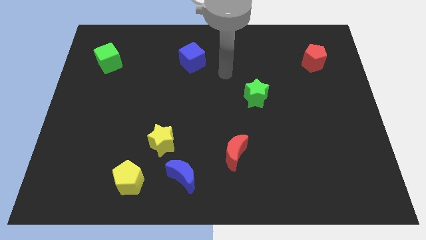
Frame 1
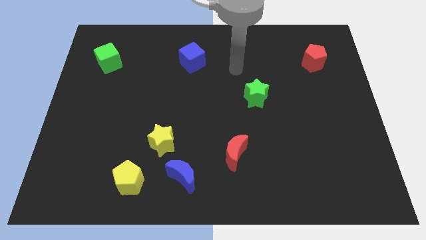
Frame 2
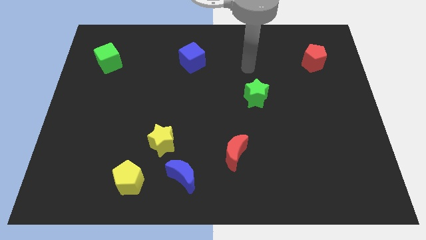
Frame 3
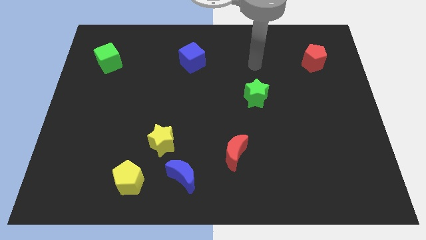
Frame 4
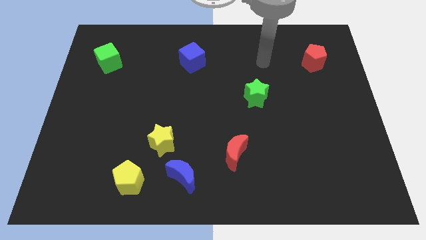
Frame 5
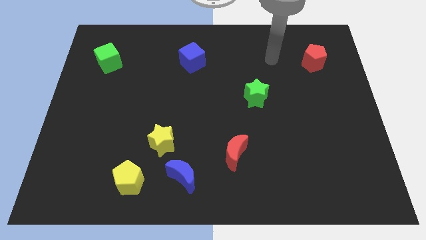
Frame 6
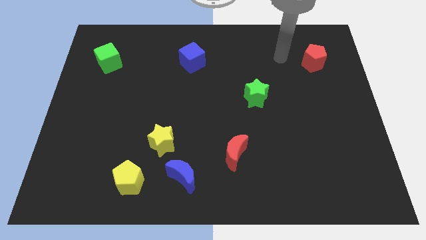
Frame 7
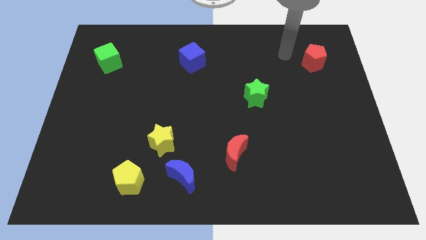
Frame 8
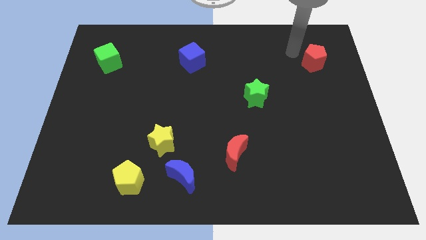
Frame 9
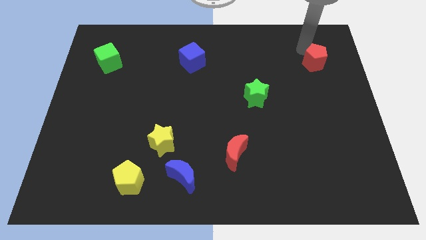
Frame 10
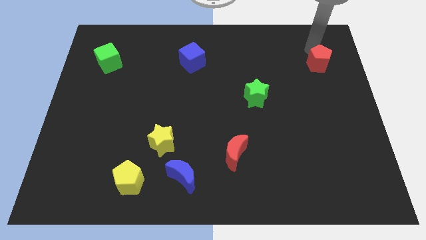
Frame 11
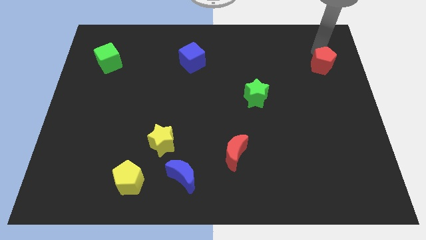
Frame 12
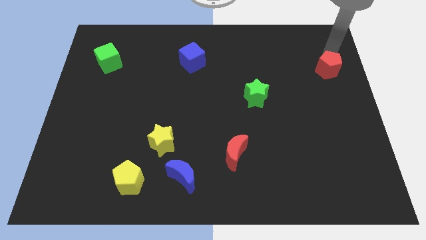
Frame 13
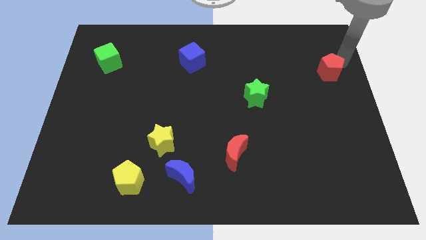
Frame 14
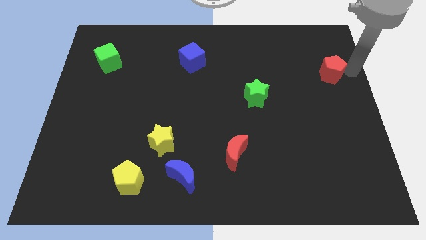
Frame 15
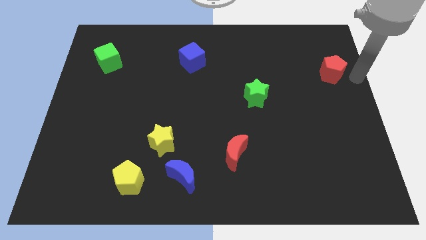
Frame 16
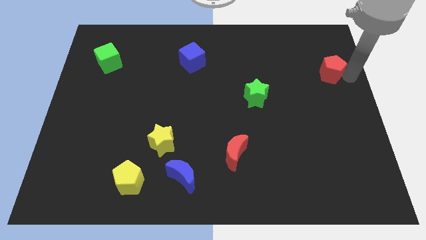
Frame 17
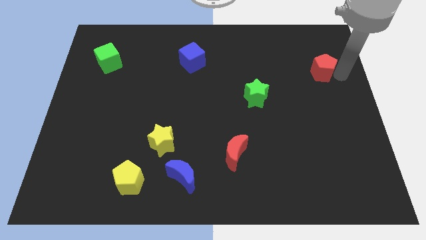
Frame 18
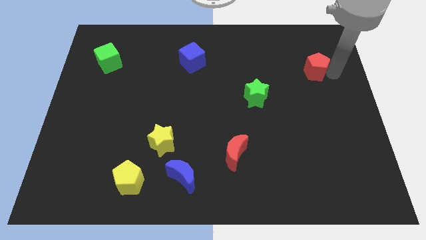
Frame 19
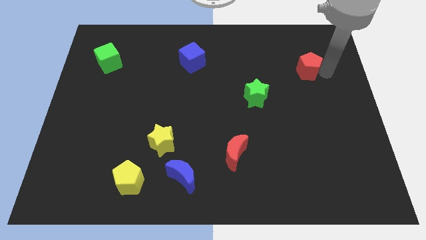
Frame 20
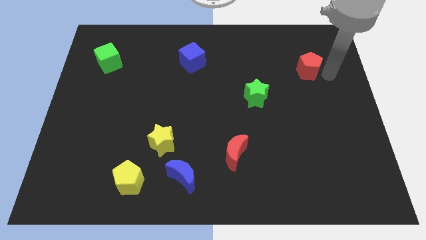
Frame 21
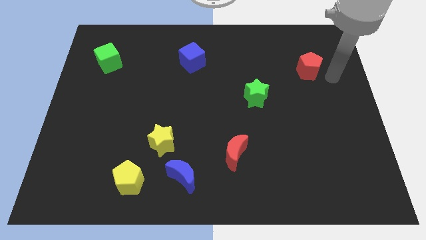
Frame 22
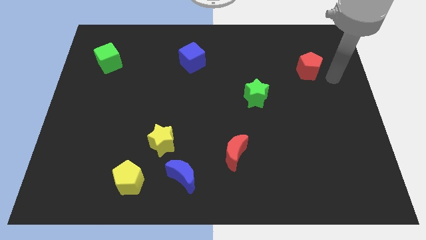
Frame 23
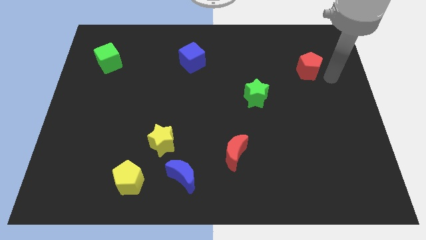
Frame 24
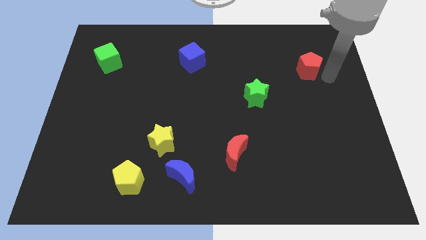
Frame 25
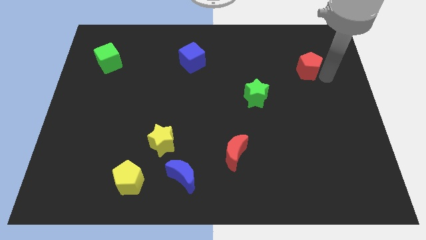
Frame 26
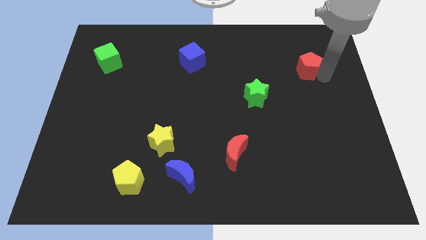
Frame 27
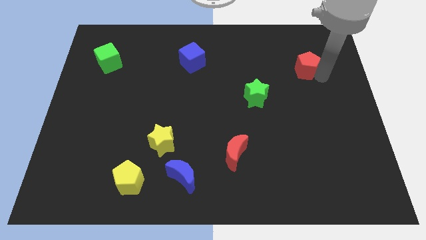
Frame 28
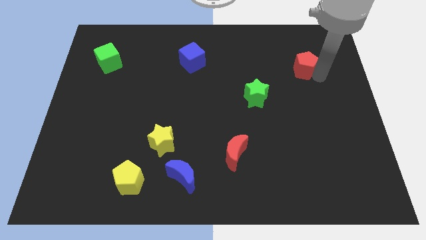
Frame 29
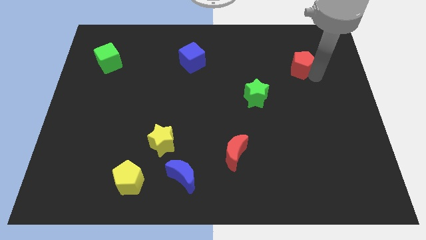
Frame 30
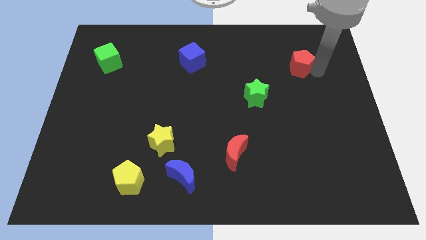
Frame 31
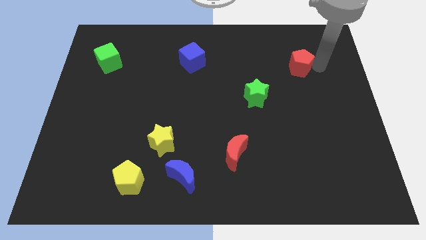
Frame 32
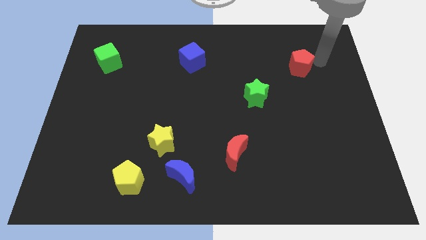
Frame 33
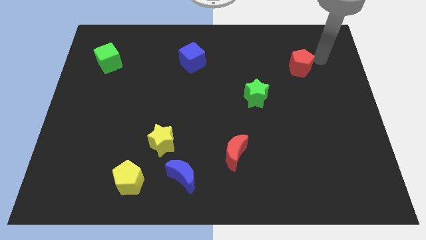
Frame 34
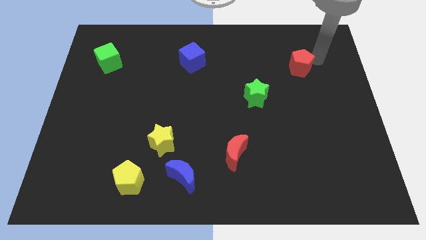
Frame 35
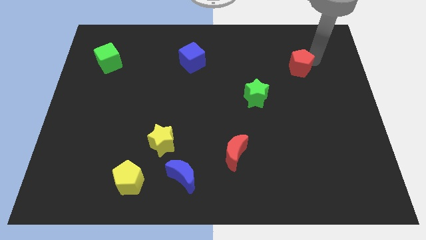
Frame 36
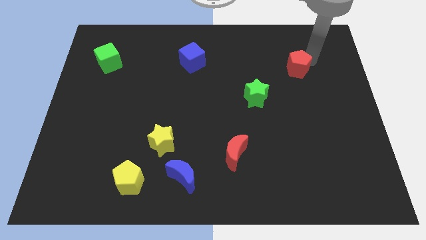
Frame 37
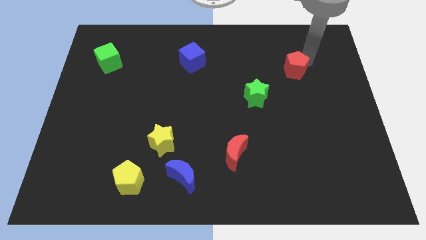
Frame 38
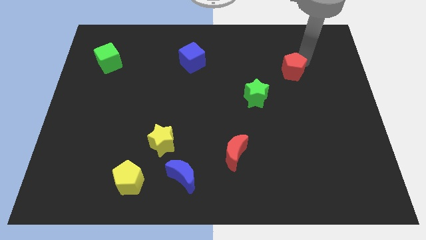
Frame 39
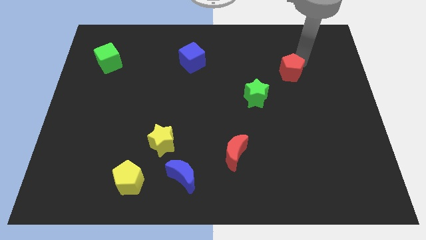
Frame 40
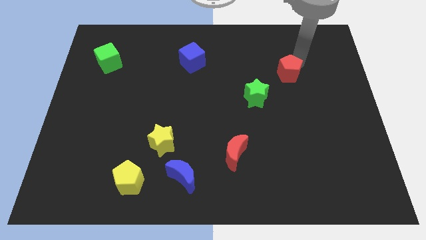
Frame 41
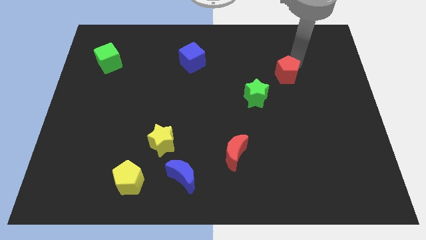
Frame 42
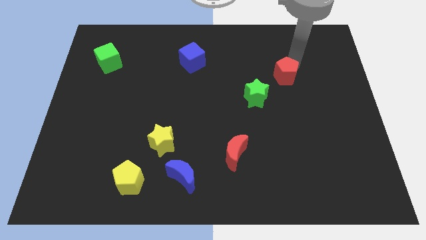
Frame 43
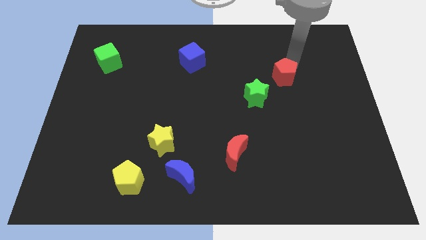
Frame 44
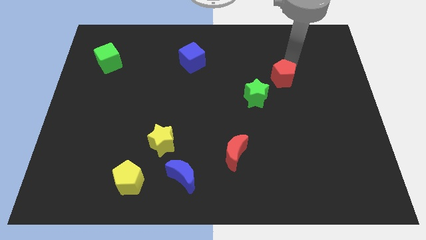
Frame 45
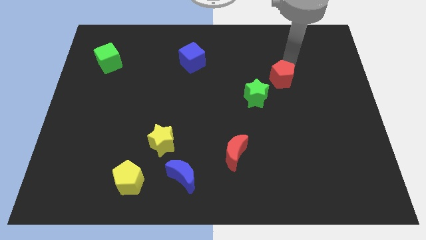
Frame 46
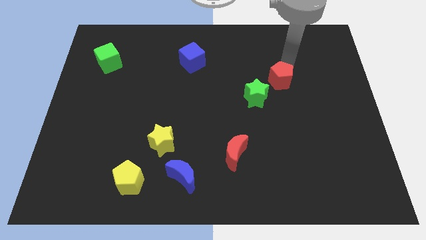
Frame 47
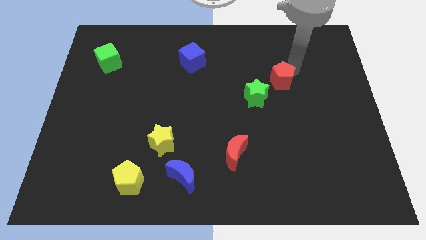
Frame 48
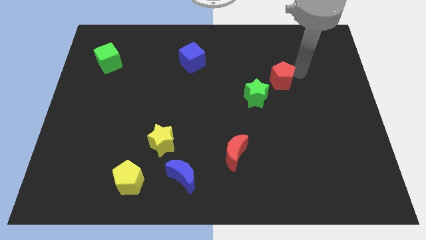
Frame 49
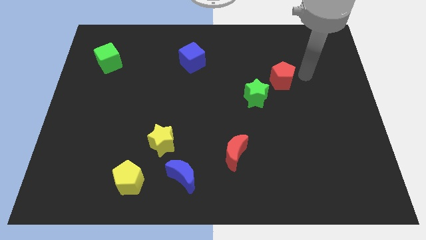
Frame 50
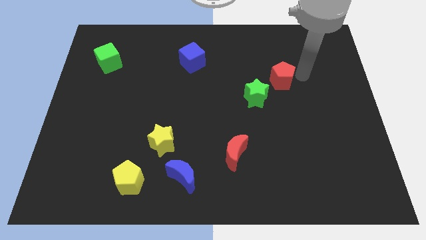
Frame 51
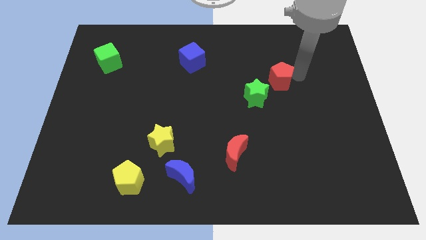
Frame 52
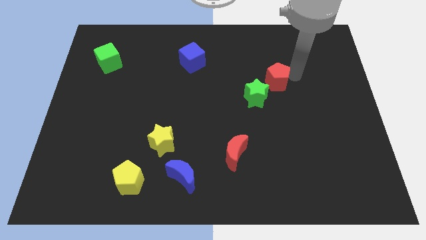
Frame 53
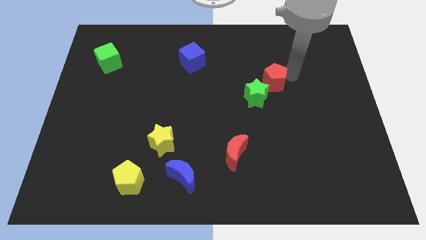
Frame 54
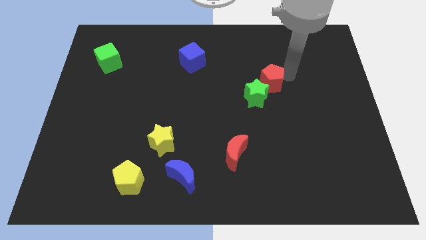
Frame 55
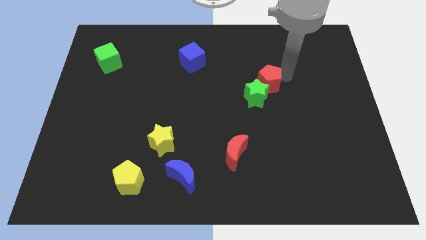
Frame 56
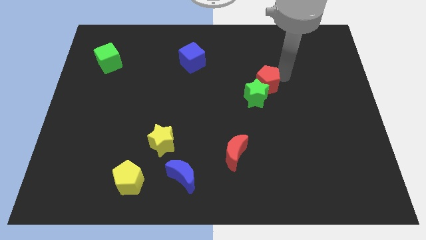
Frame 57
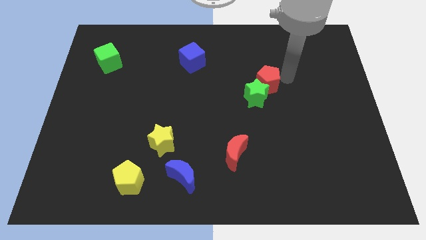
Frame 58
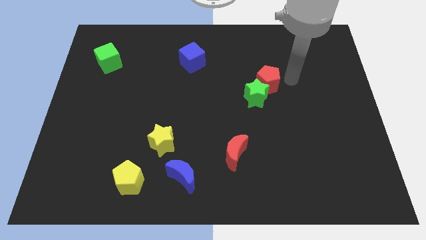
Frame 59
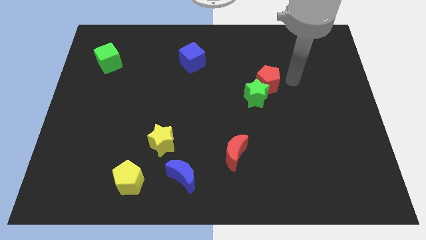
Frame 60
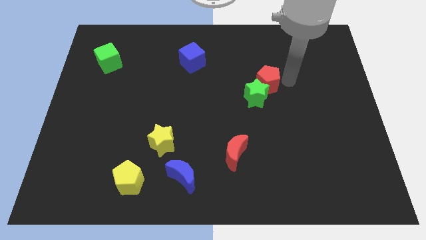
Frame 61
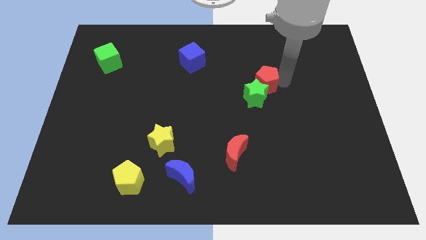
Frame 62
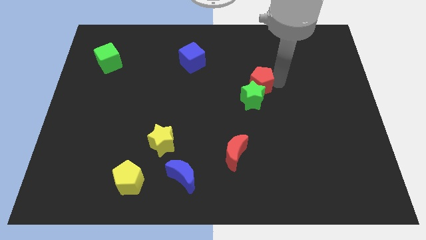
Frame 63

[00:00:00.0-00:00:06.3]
push the red pentagon to the middle of the board

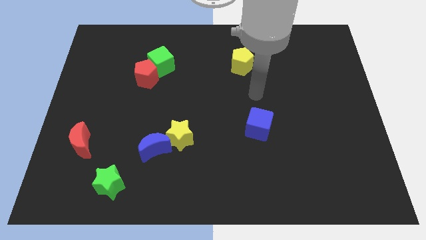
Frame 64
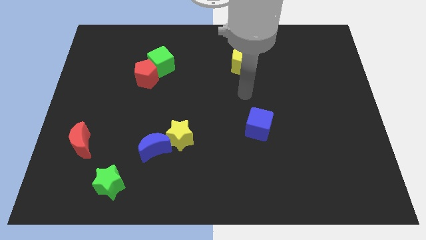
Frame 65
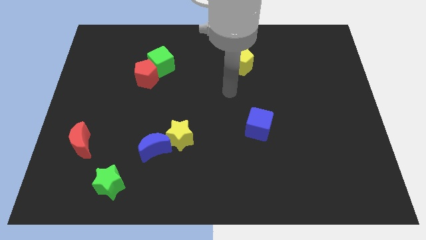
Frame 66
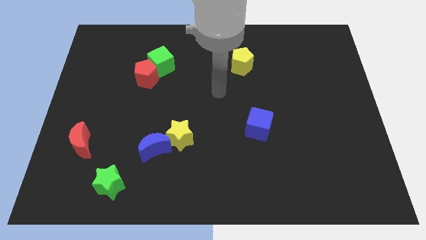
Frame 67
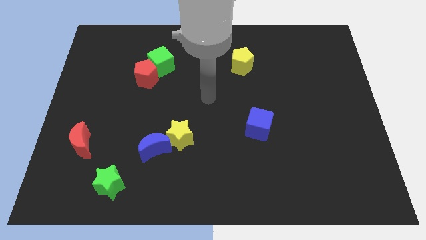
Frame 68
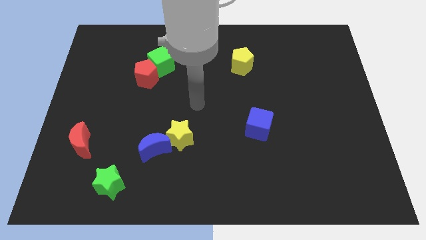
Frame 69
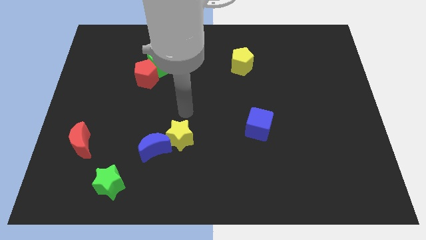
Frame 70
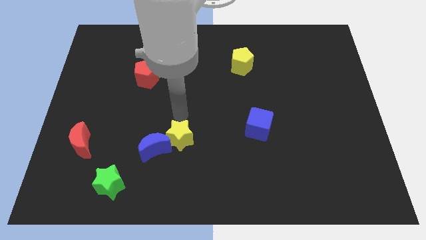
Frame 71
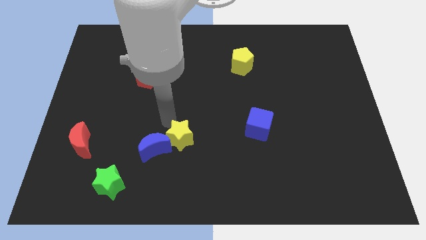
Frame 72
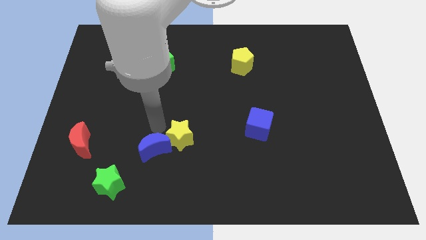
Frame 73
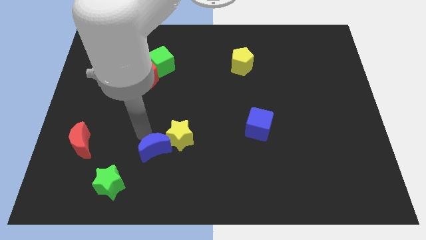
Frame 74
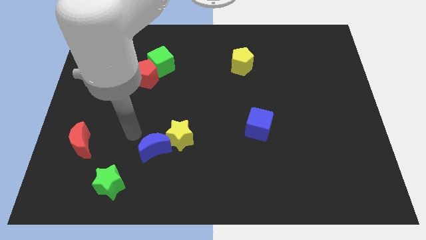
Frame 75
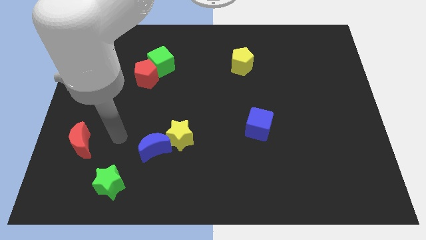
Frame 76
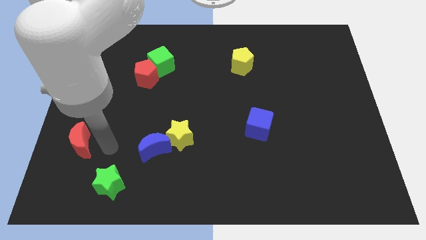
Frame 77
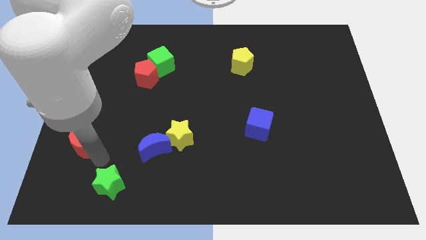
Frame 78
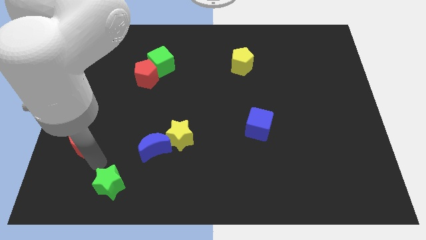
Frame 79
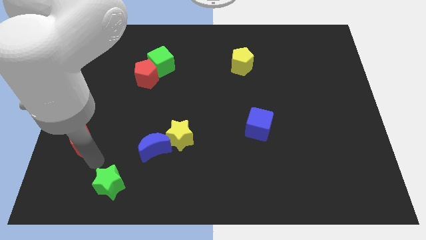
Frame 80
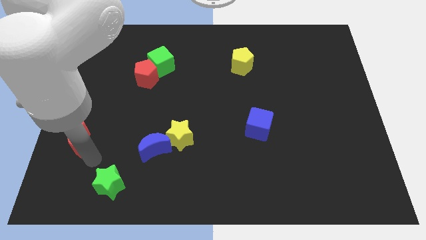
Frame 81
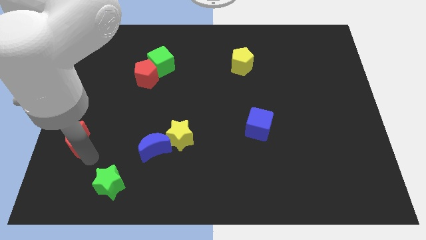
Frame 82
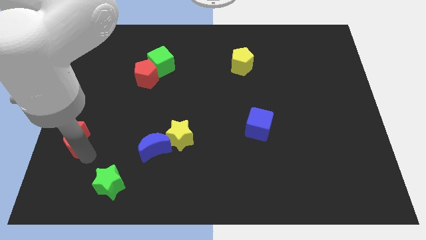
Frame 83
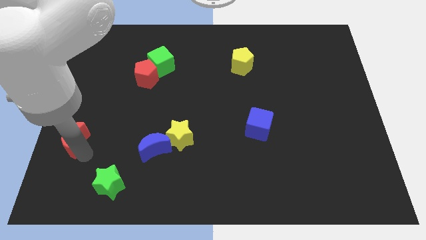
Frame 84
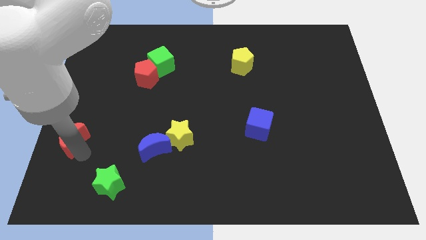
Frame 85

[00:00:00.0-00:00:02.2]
move the red moon to the left side
